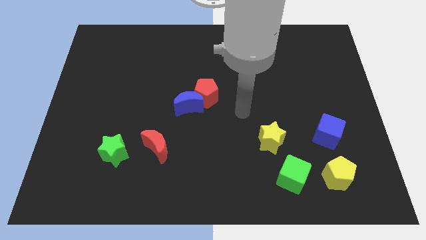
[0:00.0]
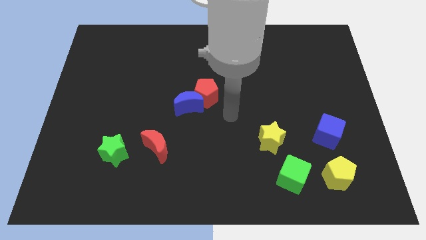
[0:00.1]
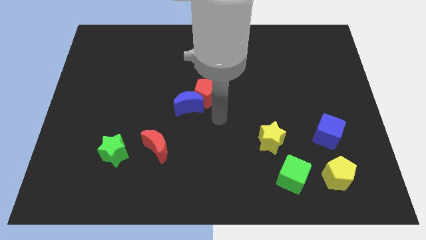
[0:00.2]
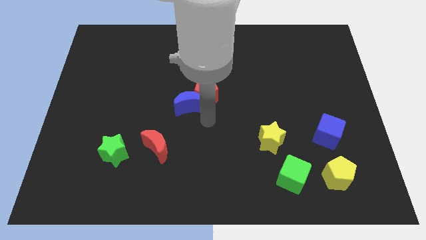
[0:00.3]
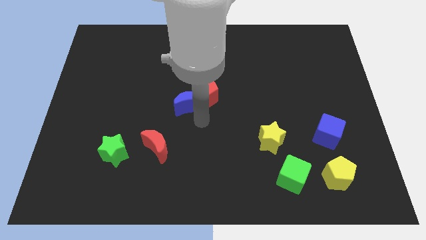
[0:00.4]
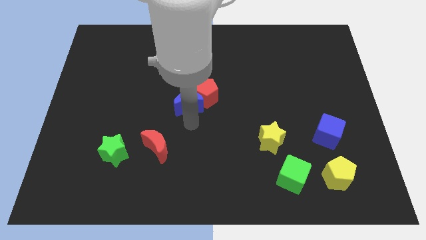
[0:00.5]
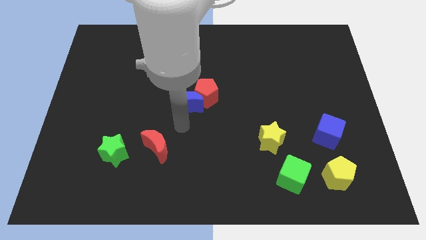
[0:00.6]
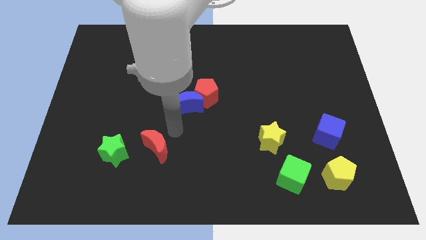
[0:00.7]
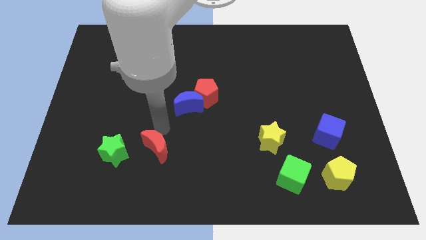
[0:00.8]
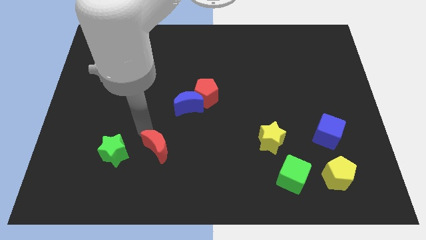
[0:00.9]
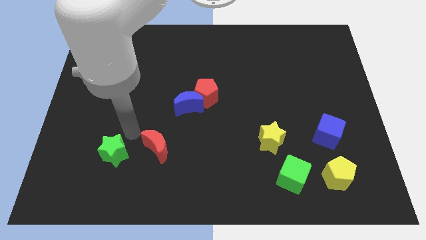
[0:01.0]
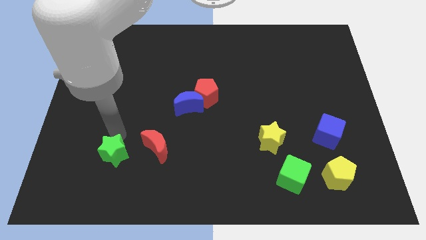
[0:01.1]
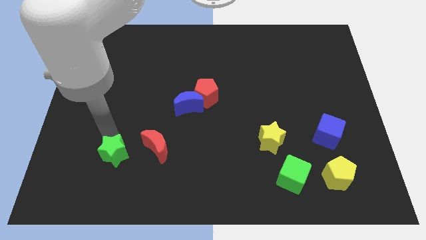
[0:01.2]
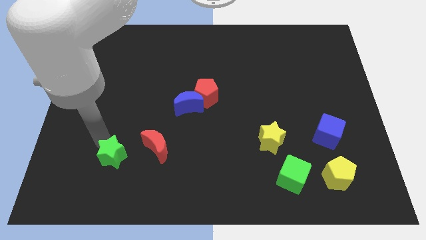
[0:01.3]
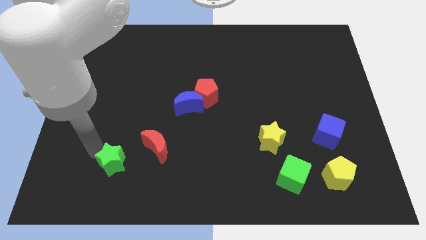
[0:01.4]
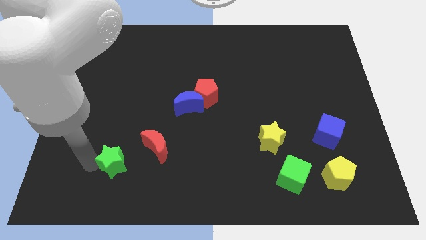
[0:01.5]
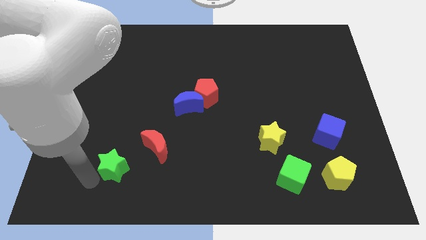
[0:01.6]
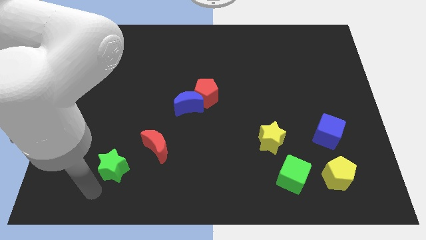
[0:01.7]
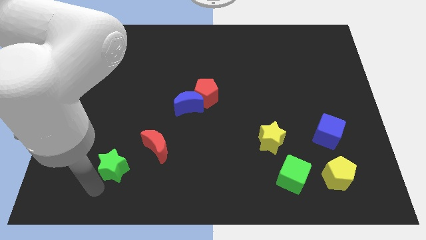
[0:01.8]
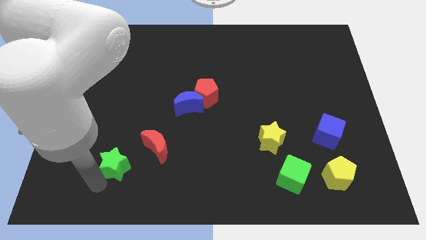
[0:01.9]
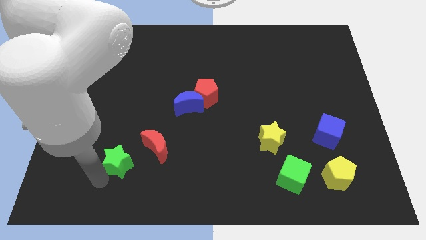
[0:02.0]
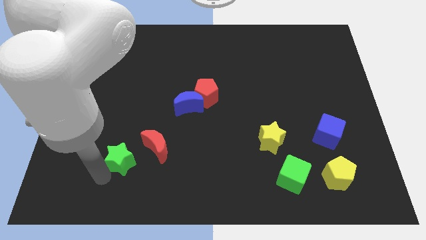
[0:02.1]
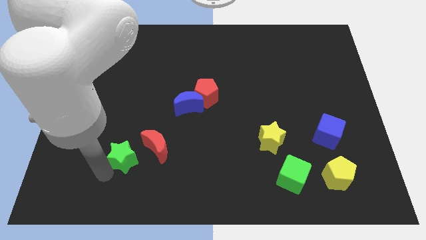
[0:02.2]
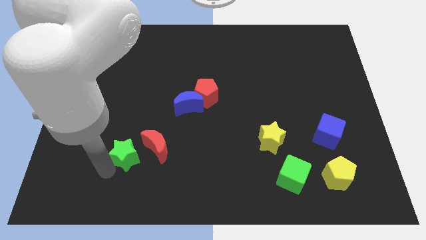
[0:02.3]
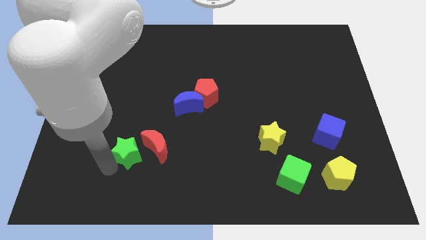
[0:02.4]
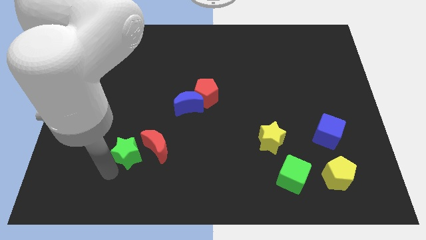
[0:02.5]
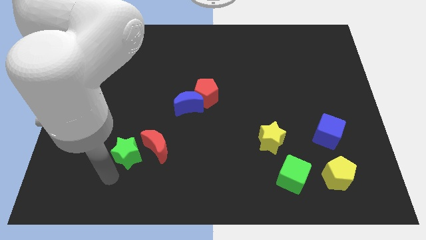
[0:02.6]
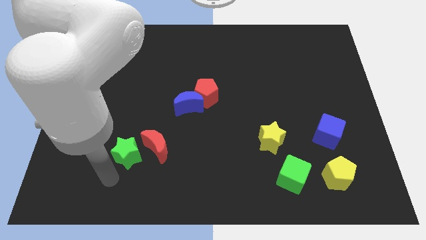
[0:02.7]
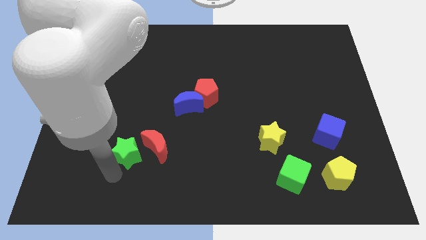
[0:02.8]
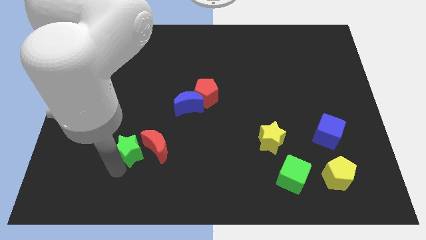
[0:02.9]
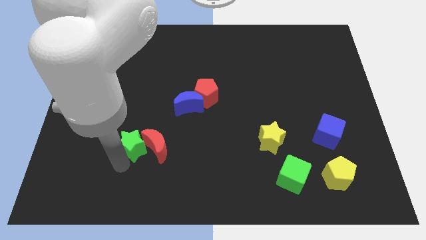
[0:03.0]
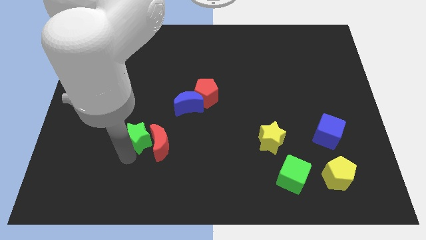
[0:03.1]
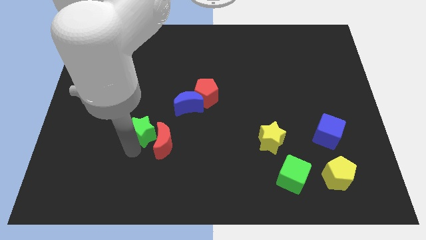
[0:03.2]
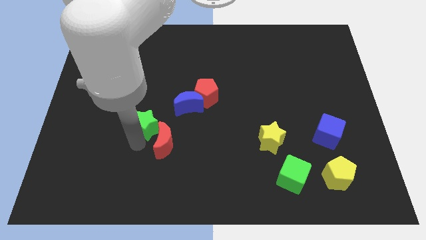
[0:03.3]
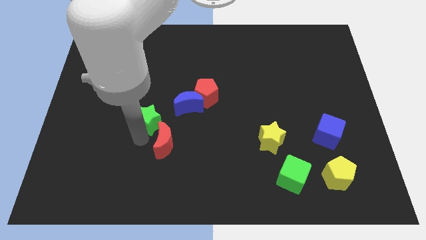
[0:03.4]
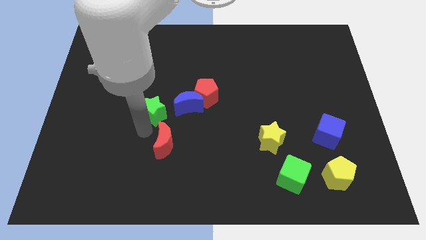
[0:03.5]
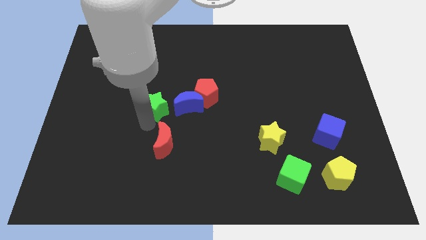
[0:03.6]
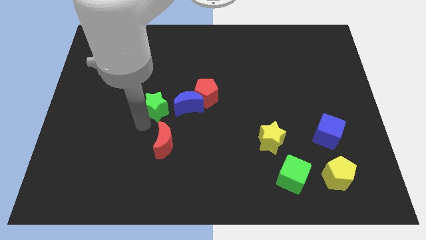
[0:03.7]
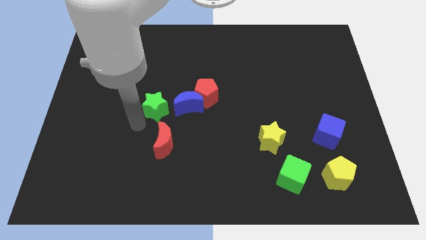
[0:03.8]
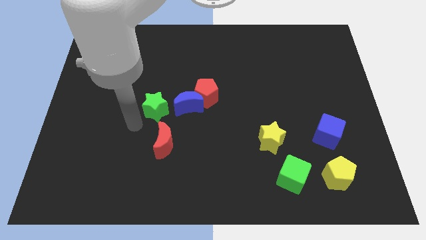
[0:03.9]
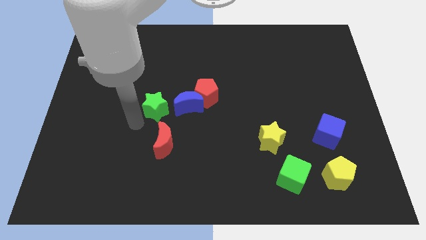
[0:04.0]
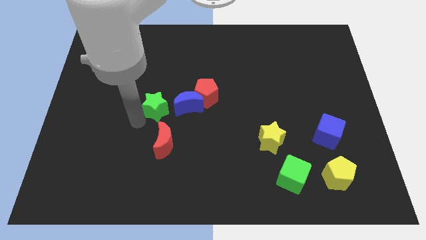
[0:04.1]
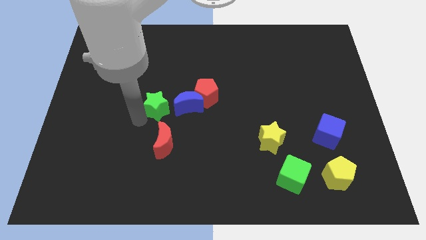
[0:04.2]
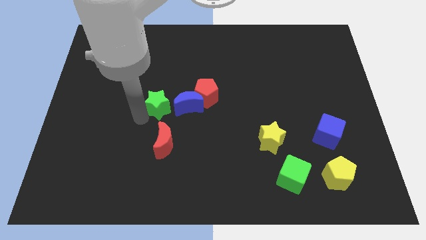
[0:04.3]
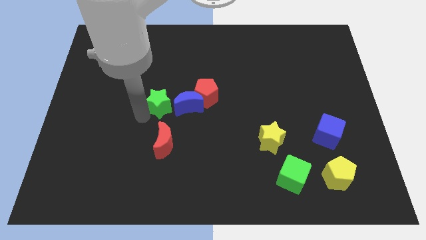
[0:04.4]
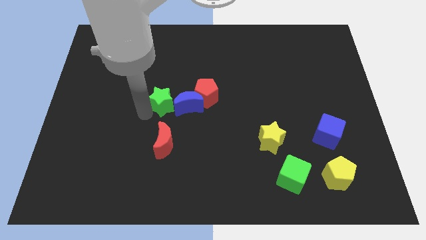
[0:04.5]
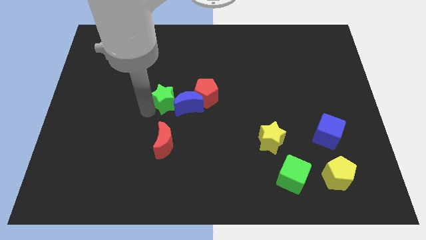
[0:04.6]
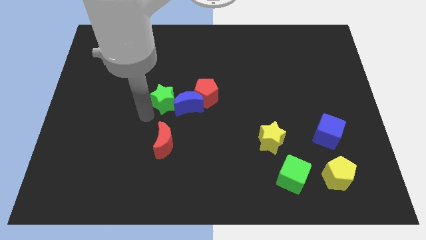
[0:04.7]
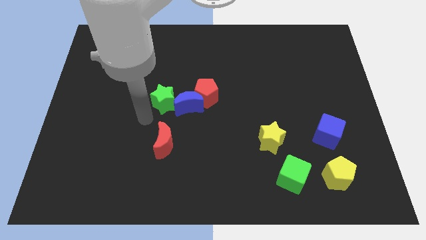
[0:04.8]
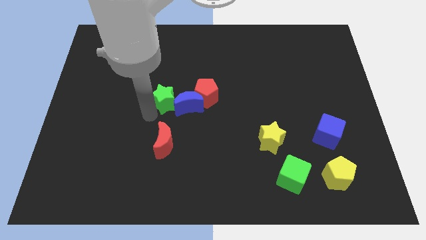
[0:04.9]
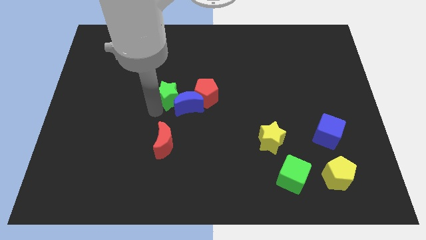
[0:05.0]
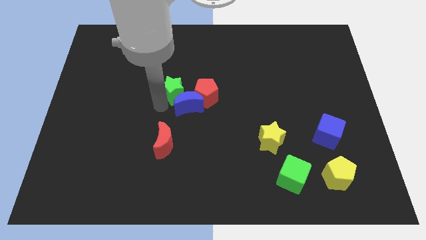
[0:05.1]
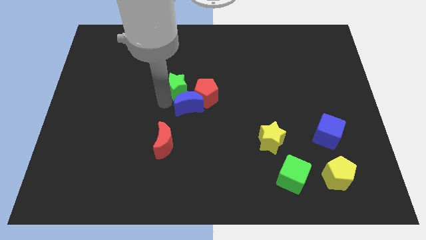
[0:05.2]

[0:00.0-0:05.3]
slide the green star diagonally upwards and to the right

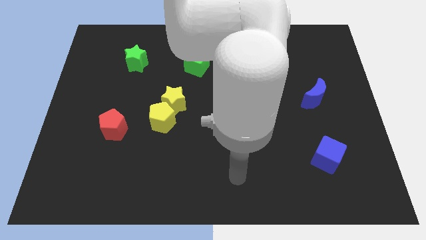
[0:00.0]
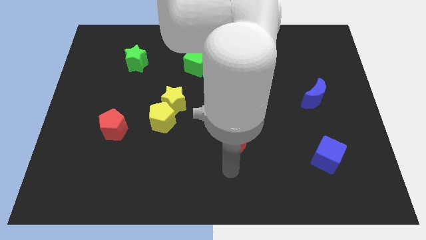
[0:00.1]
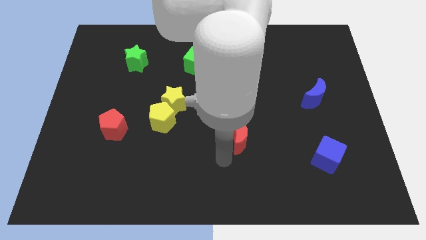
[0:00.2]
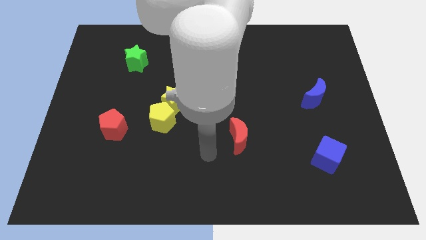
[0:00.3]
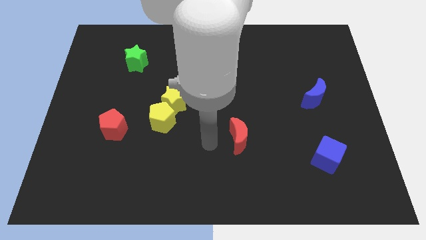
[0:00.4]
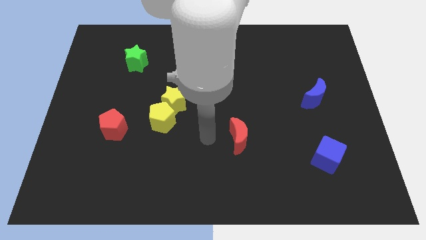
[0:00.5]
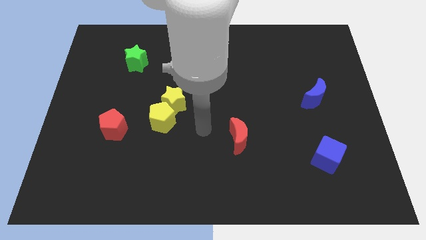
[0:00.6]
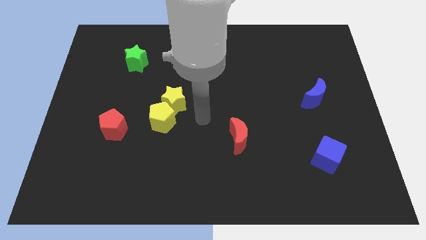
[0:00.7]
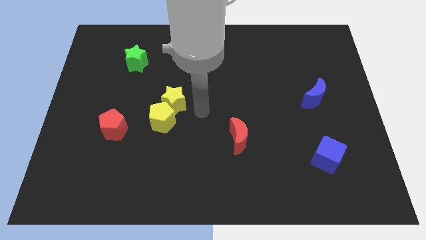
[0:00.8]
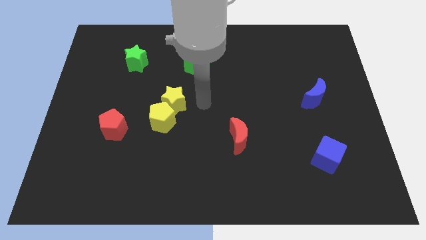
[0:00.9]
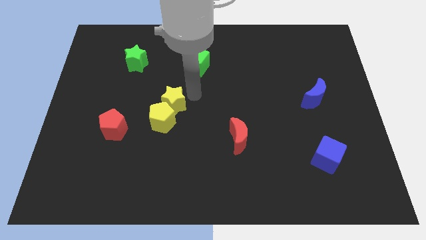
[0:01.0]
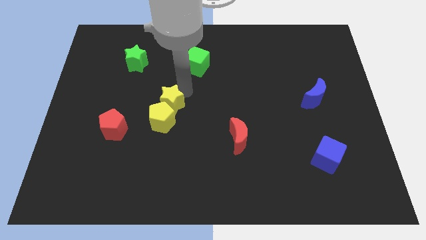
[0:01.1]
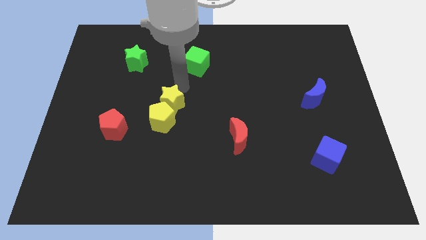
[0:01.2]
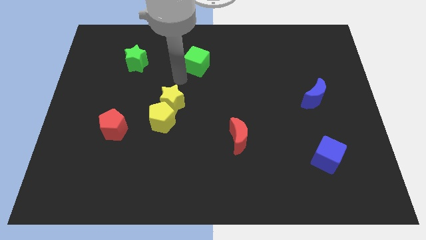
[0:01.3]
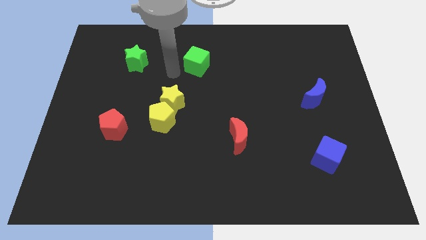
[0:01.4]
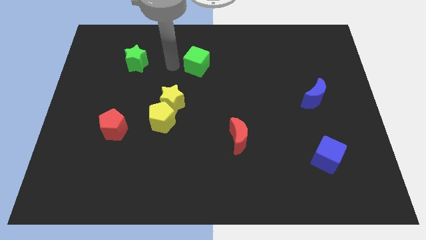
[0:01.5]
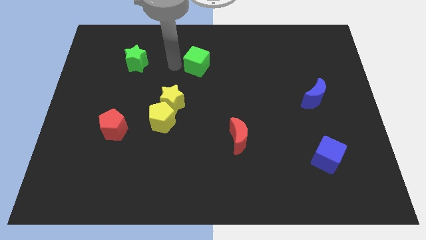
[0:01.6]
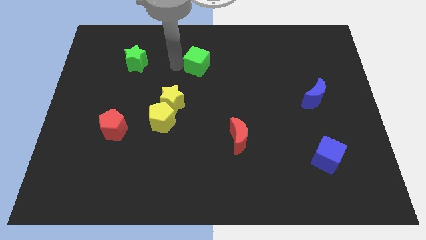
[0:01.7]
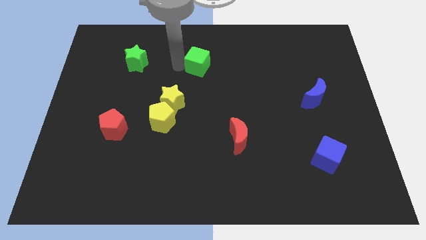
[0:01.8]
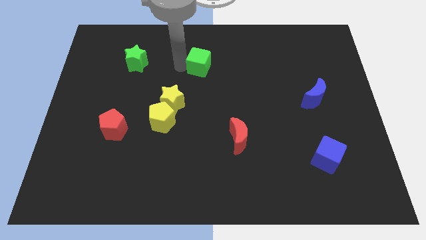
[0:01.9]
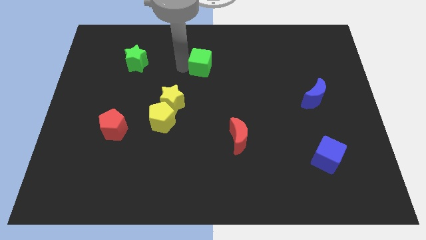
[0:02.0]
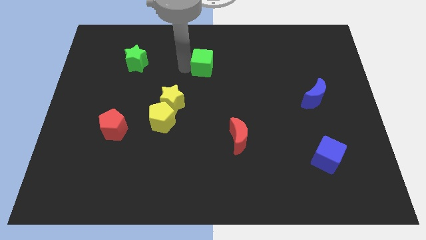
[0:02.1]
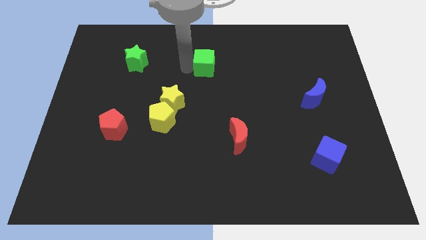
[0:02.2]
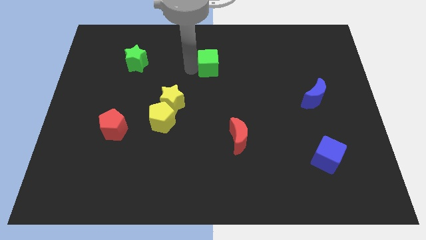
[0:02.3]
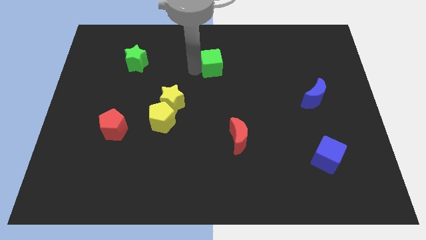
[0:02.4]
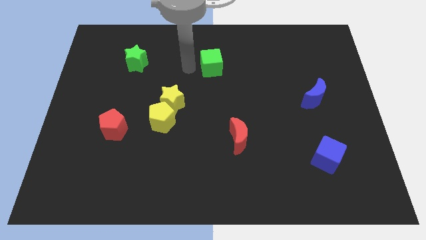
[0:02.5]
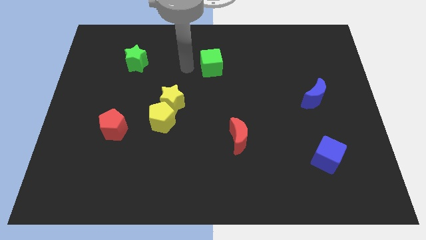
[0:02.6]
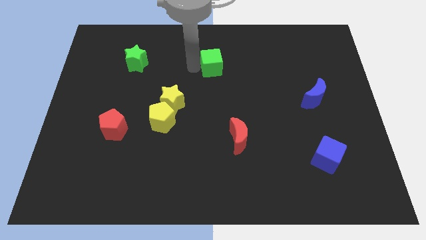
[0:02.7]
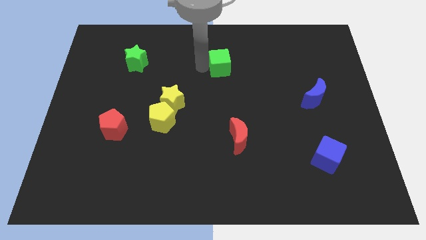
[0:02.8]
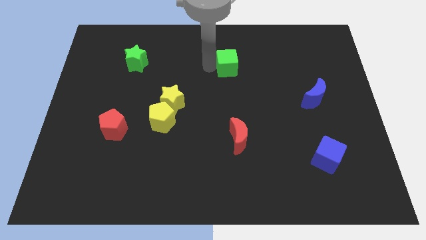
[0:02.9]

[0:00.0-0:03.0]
push the green cube to the right a little
